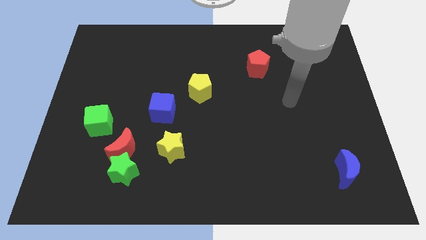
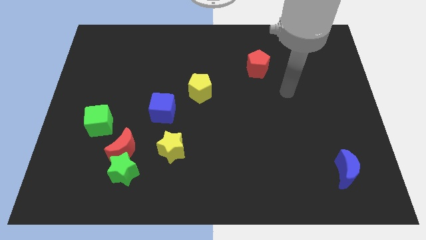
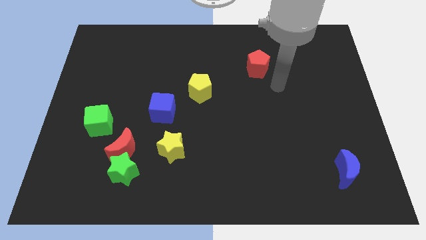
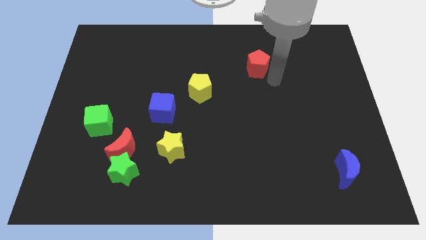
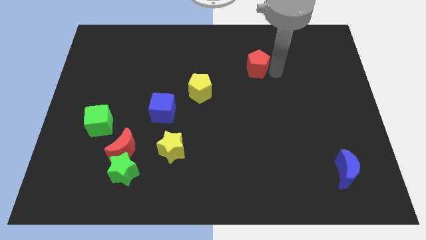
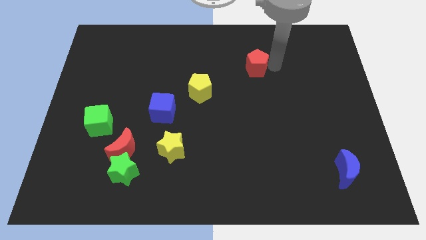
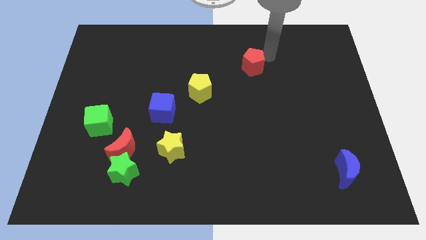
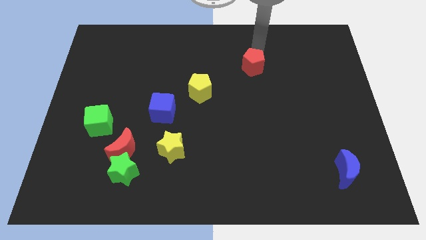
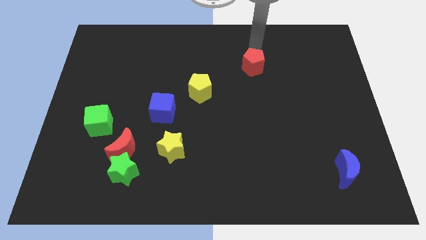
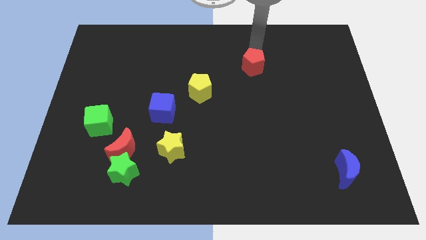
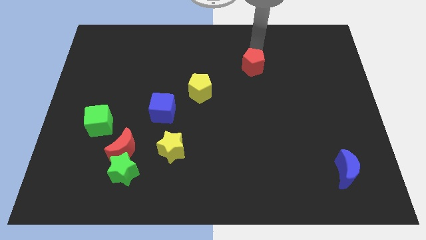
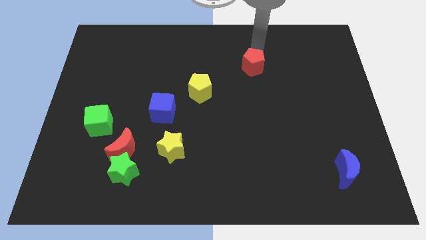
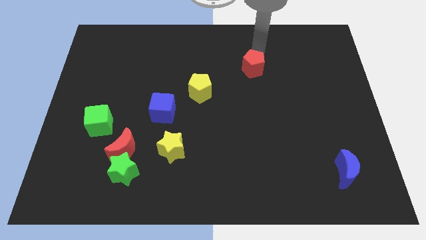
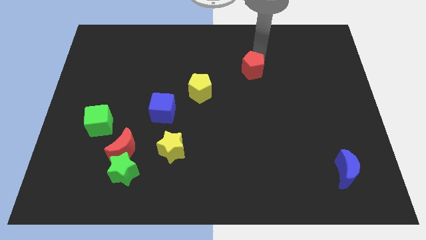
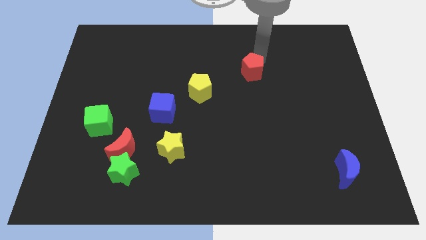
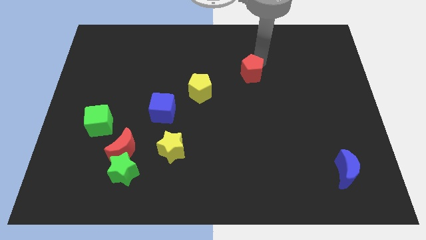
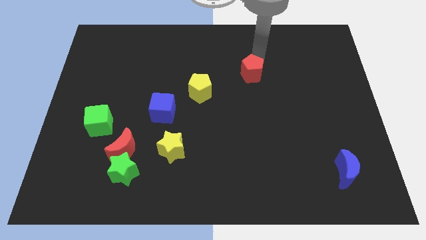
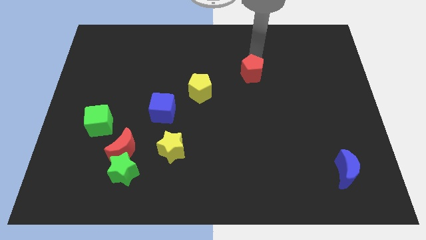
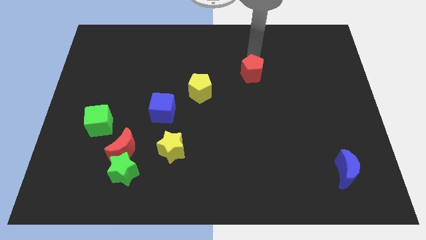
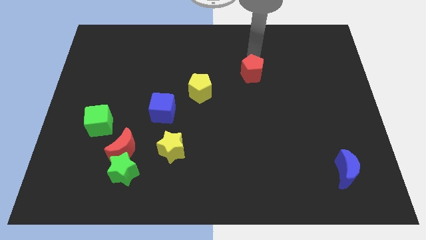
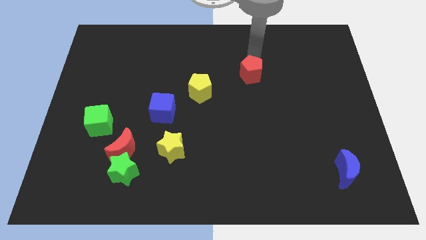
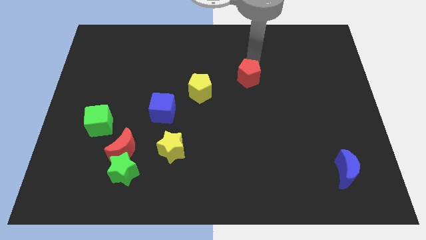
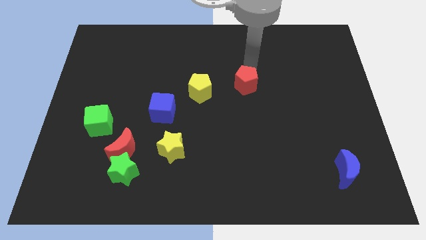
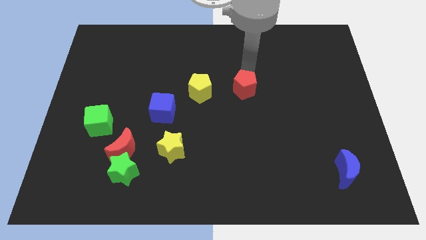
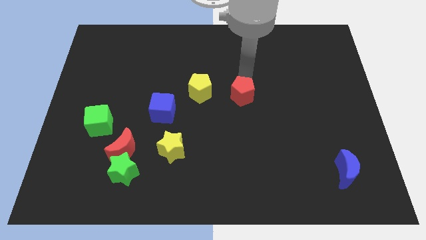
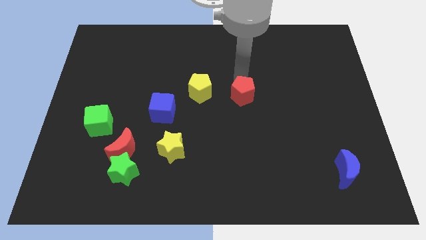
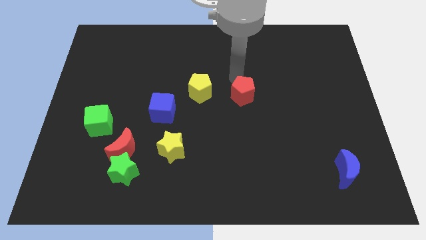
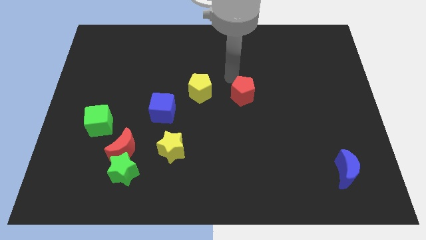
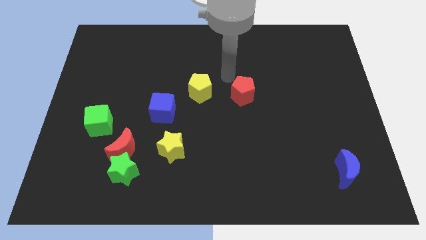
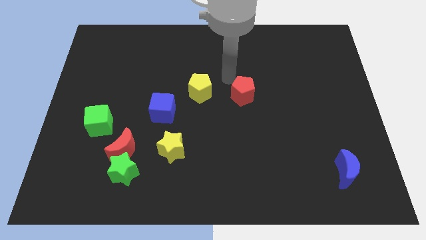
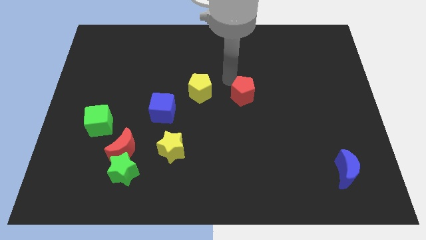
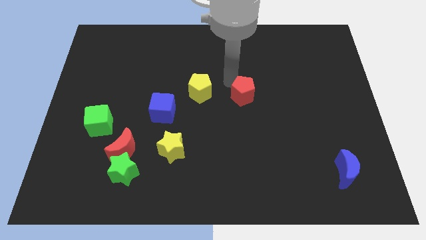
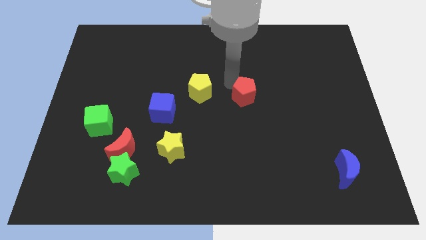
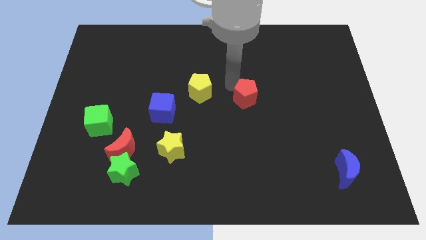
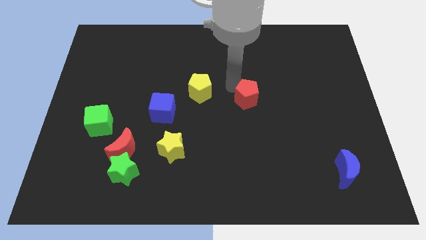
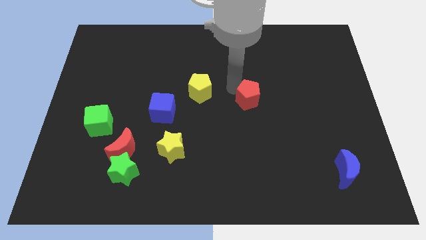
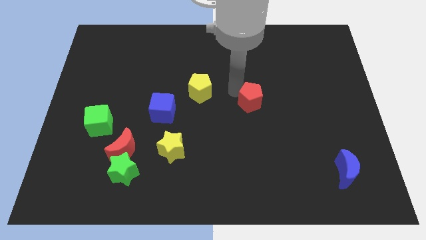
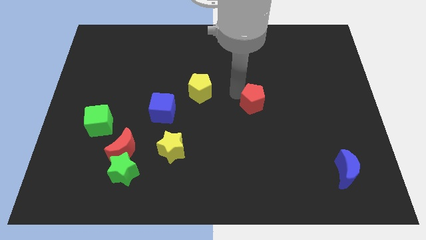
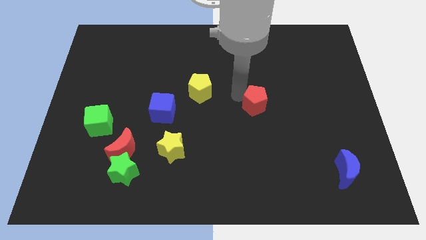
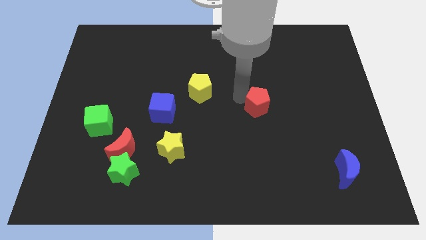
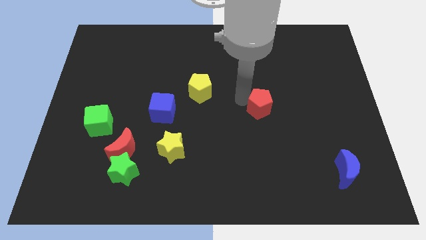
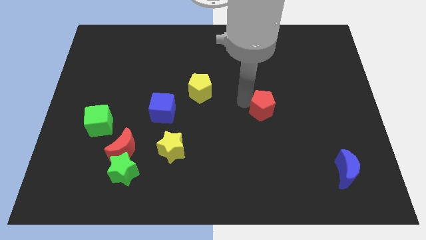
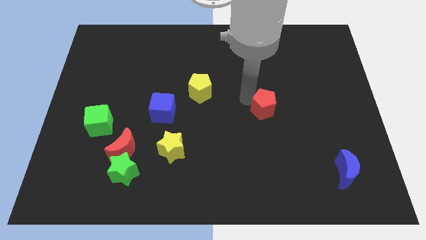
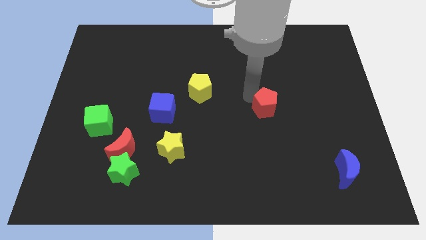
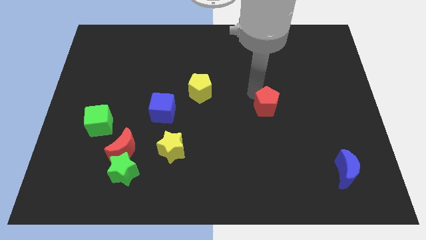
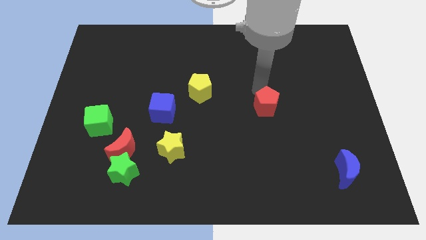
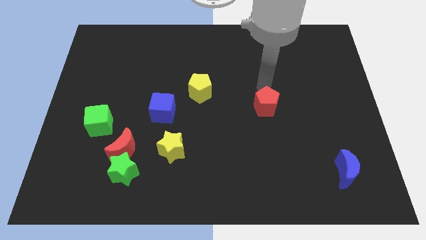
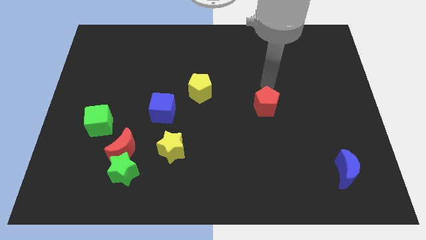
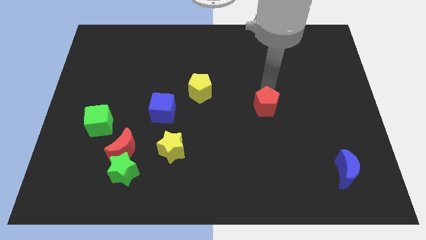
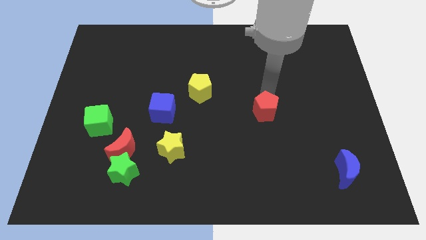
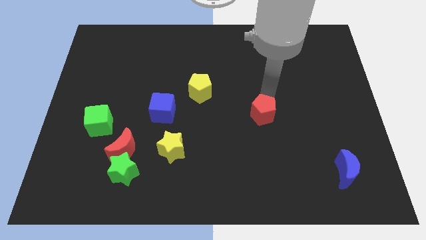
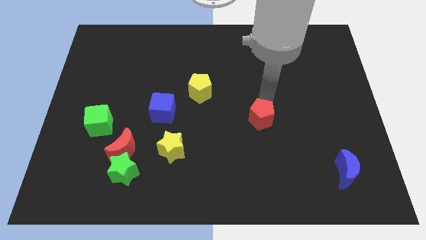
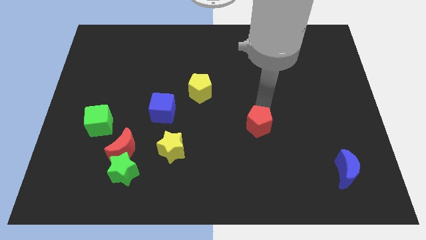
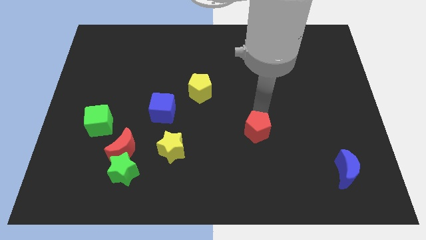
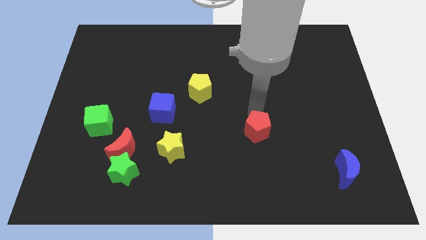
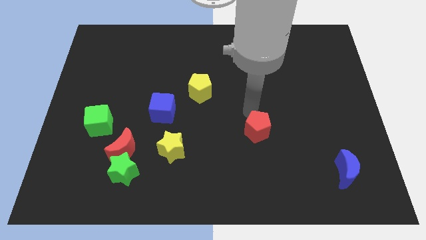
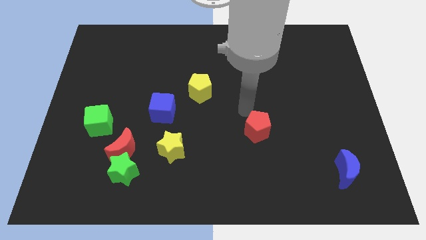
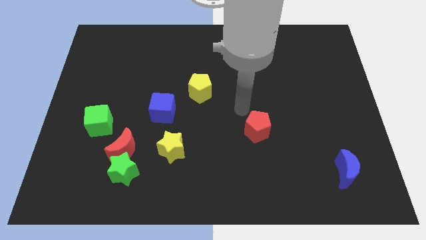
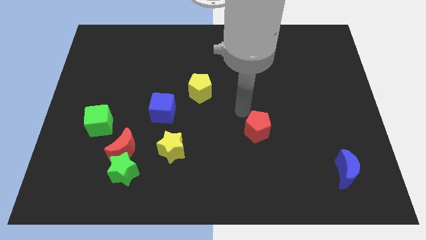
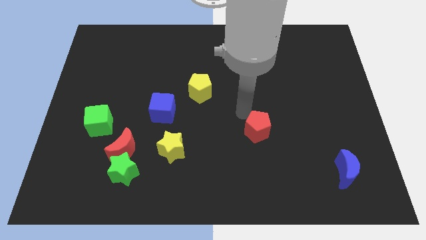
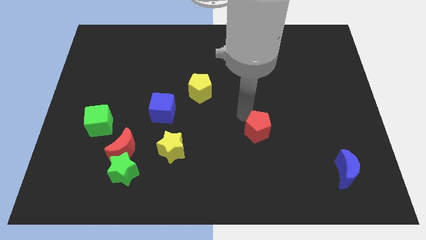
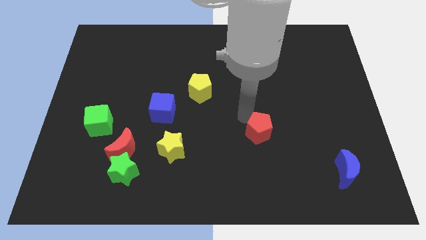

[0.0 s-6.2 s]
move the red pentagon down

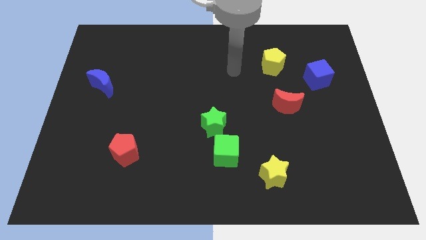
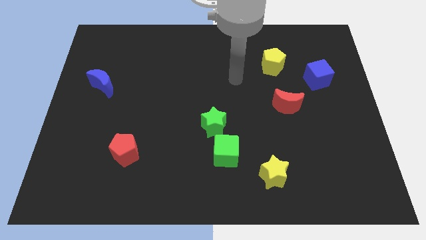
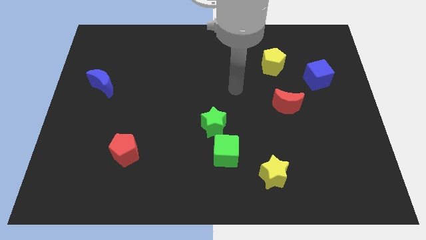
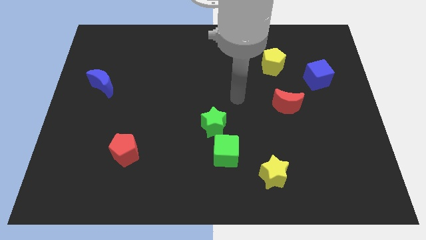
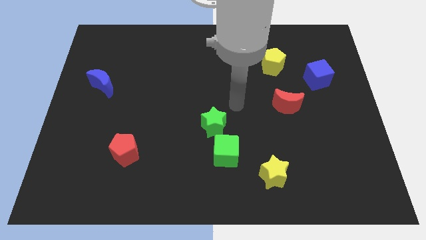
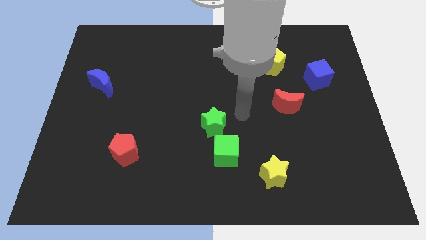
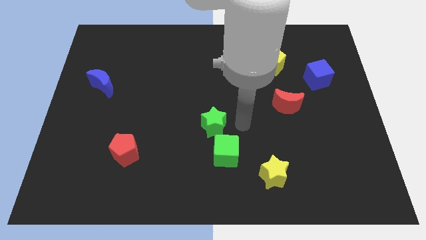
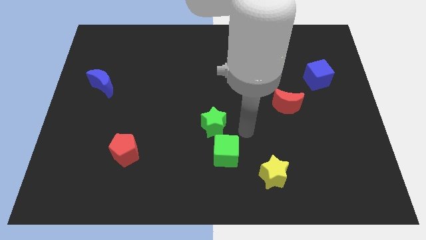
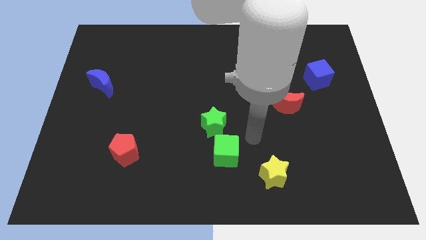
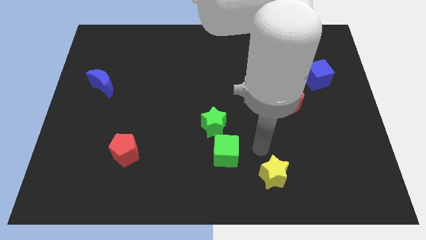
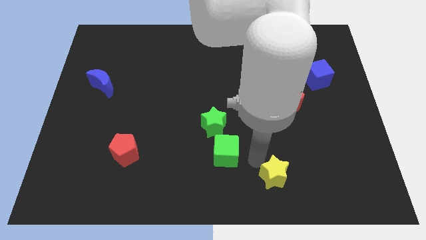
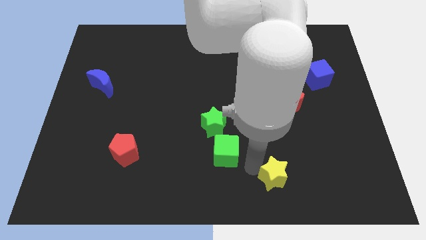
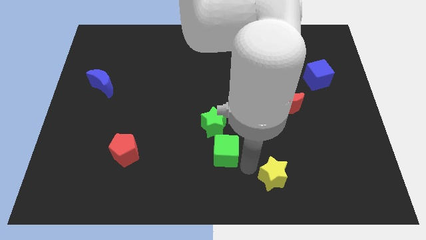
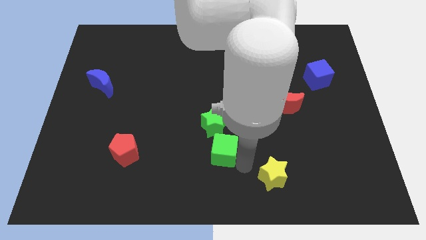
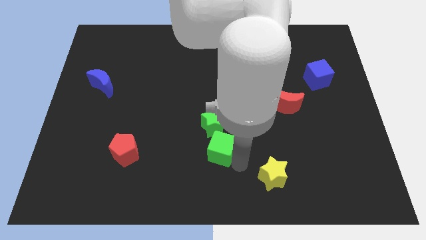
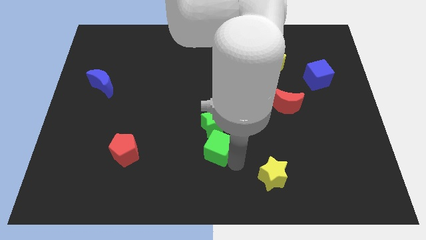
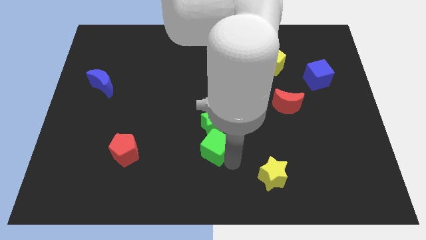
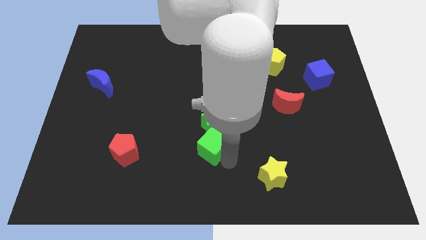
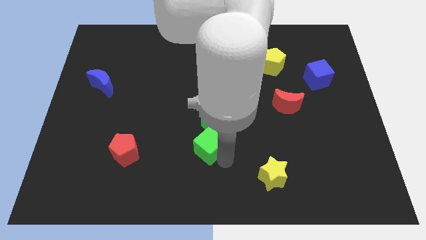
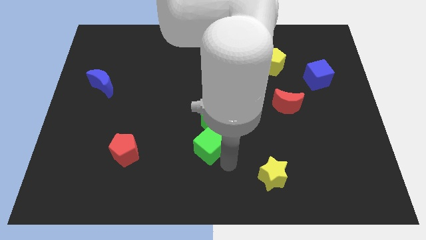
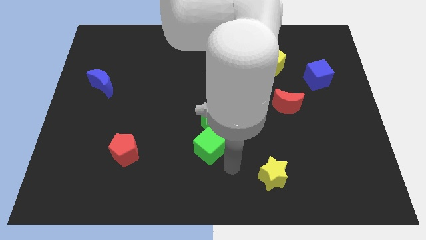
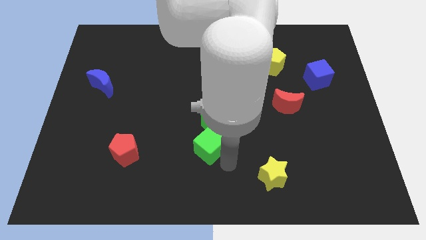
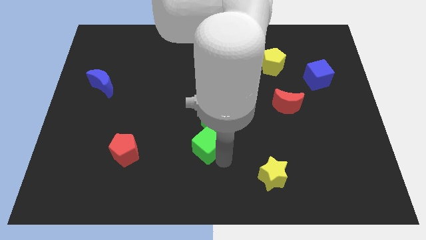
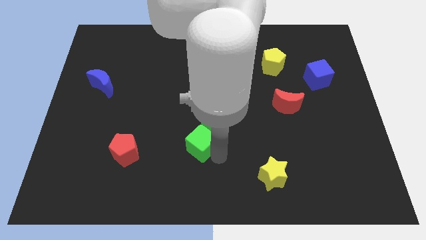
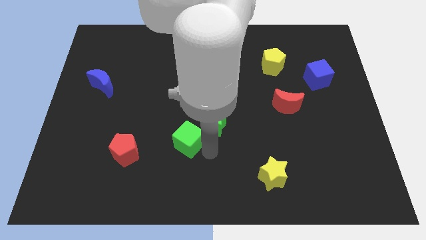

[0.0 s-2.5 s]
slightly push the green cube upwards and to the left diagonally
